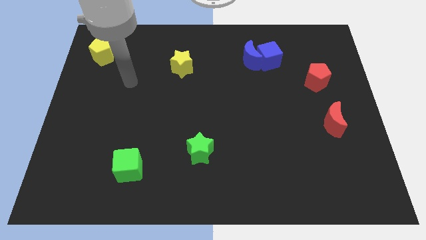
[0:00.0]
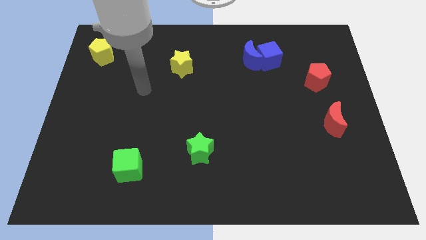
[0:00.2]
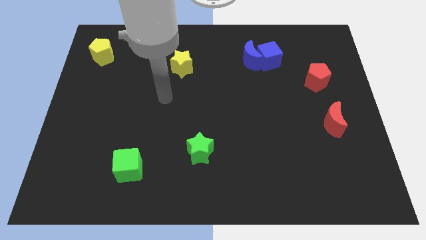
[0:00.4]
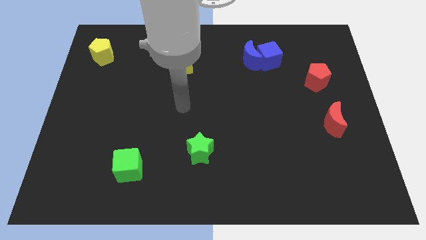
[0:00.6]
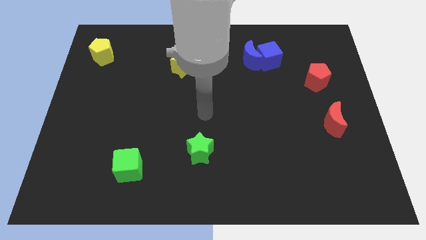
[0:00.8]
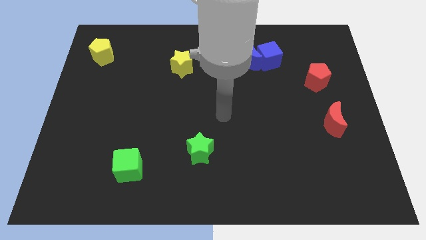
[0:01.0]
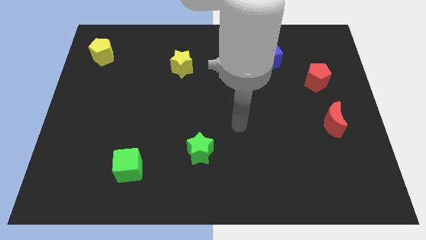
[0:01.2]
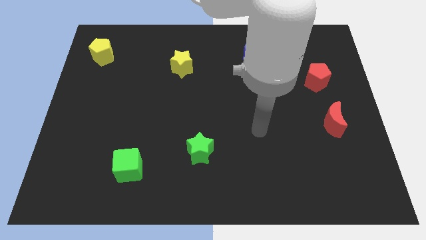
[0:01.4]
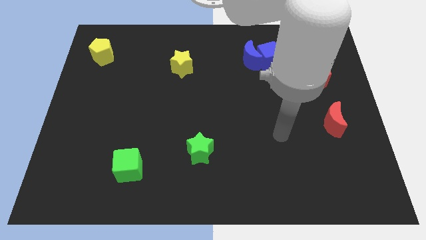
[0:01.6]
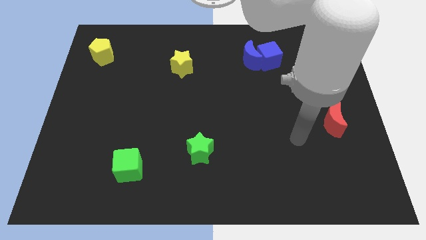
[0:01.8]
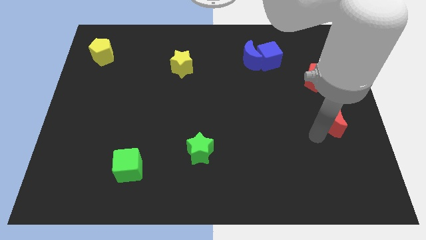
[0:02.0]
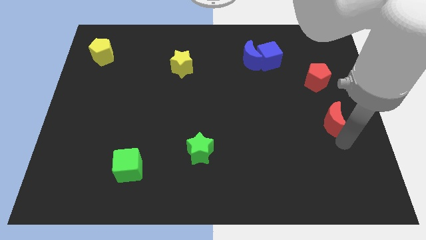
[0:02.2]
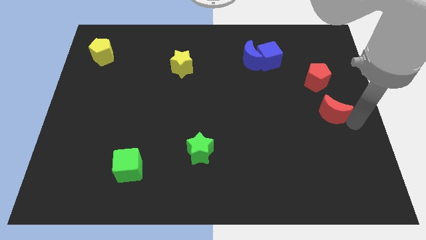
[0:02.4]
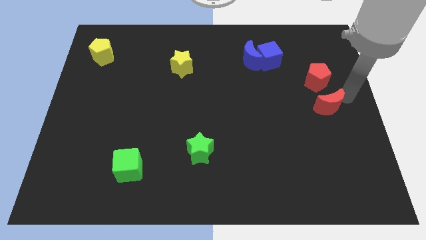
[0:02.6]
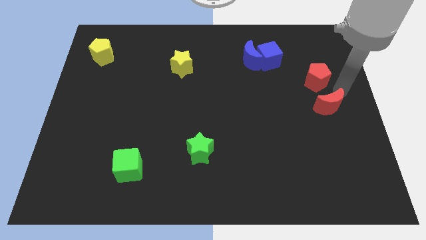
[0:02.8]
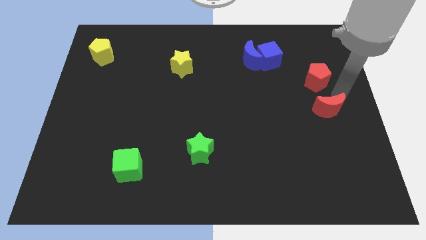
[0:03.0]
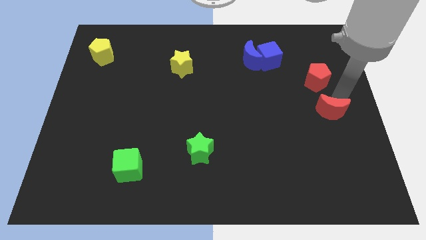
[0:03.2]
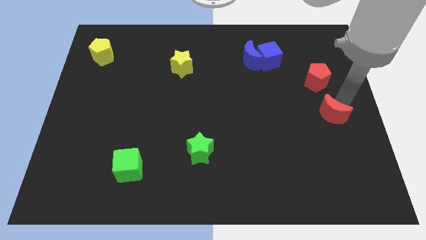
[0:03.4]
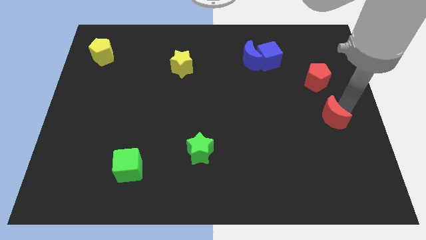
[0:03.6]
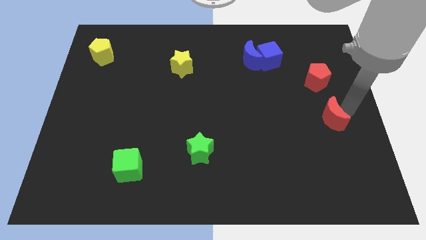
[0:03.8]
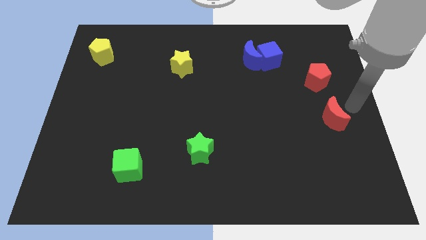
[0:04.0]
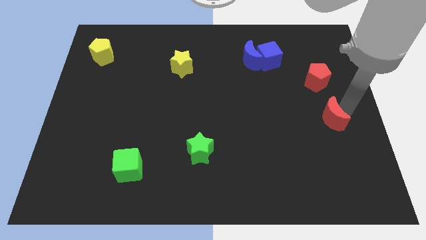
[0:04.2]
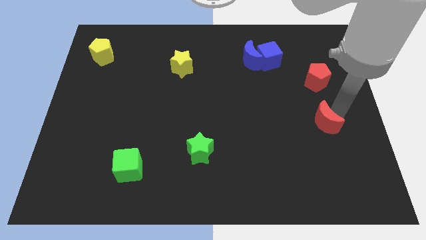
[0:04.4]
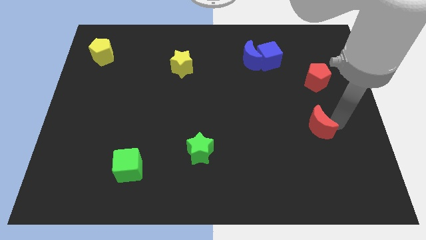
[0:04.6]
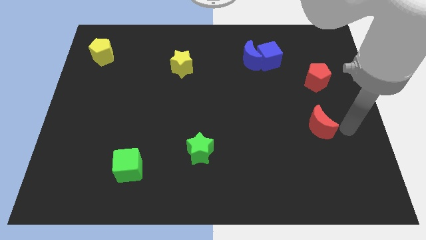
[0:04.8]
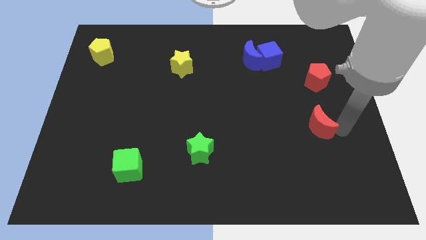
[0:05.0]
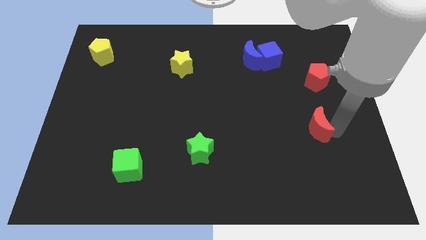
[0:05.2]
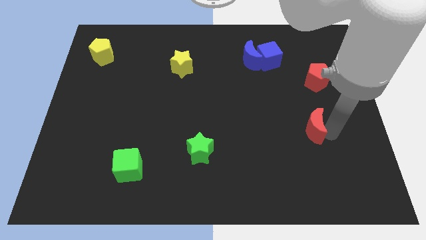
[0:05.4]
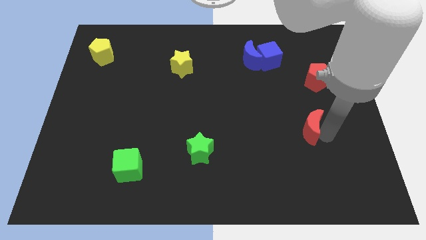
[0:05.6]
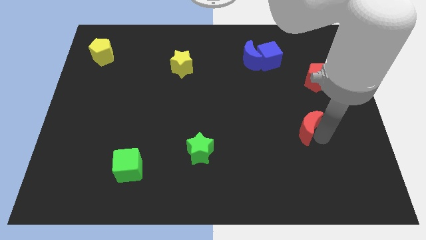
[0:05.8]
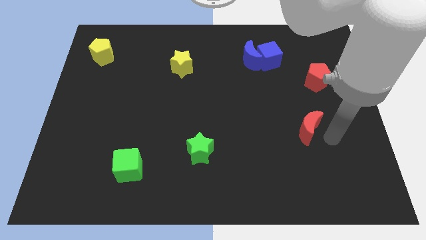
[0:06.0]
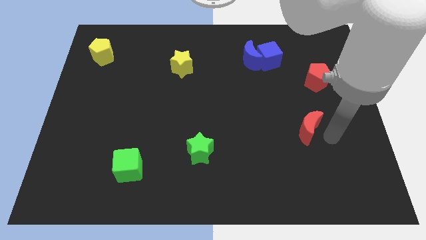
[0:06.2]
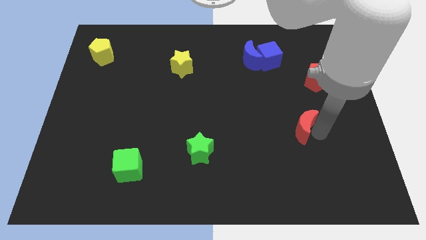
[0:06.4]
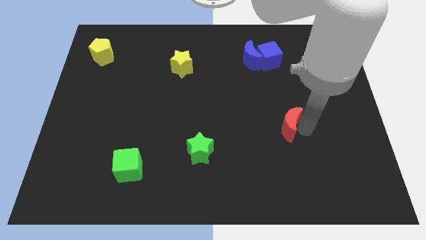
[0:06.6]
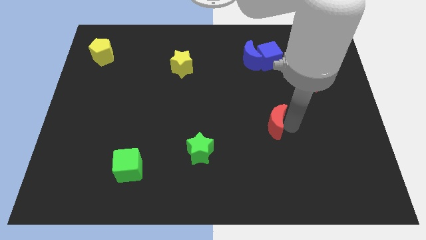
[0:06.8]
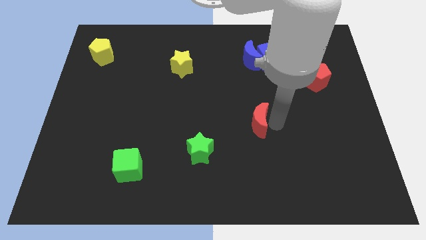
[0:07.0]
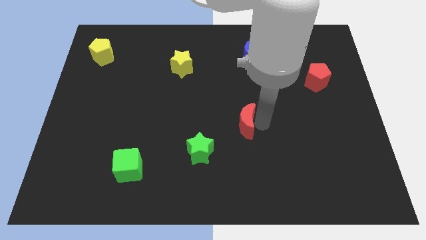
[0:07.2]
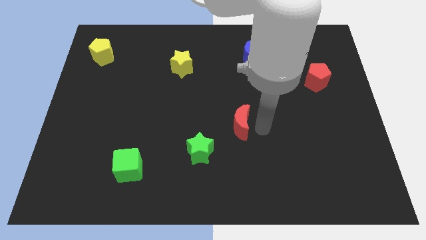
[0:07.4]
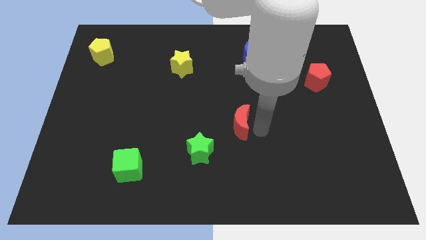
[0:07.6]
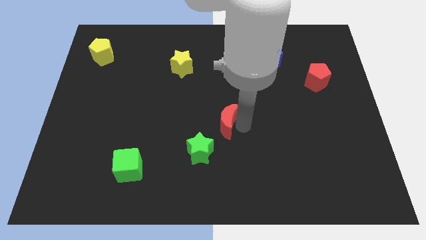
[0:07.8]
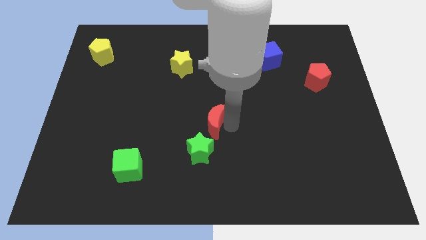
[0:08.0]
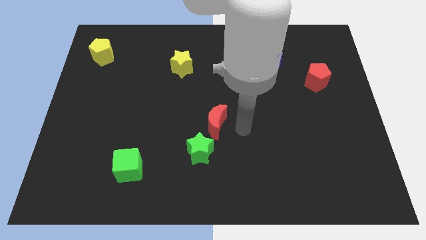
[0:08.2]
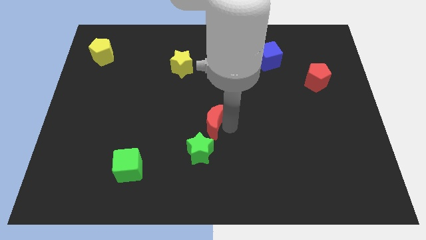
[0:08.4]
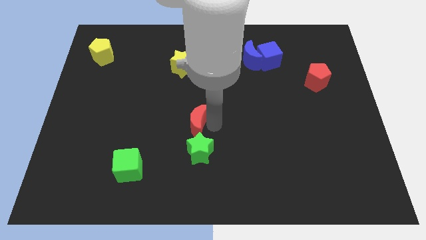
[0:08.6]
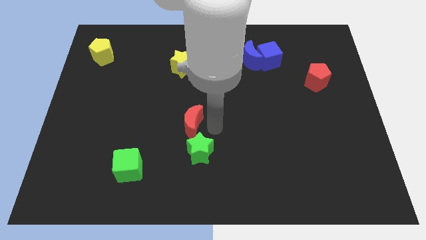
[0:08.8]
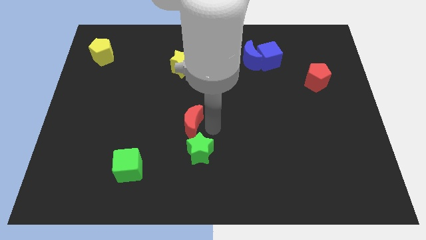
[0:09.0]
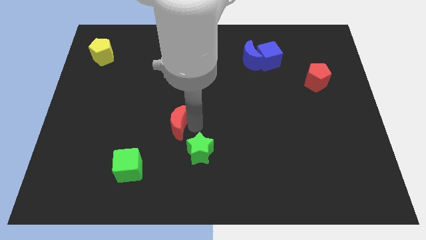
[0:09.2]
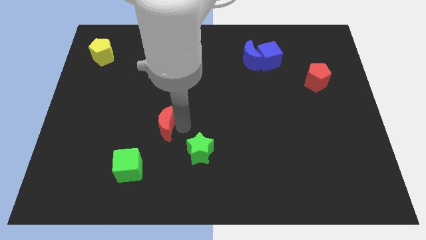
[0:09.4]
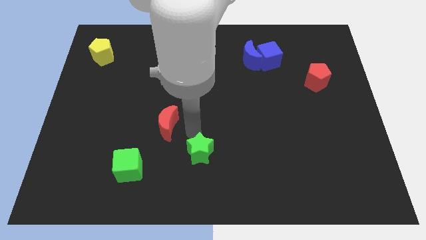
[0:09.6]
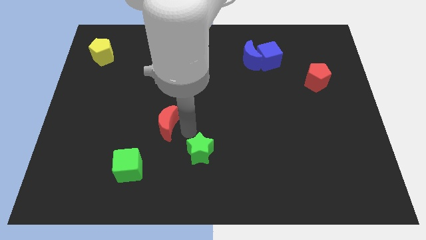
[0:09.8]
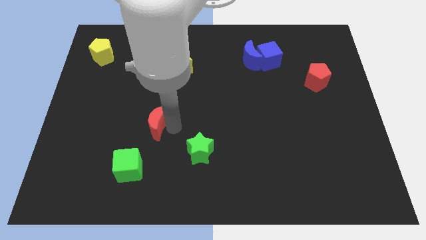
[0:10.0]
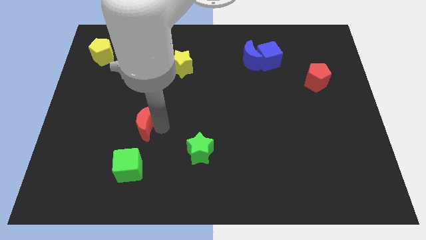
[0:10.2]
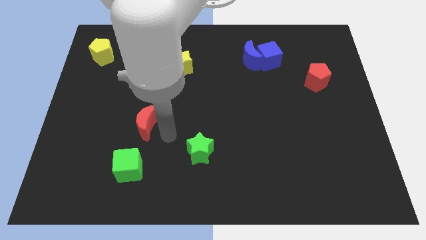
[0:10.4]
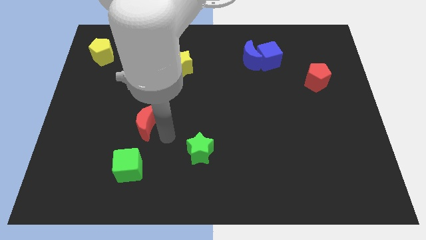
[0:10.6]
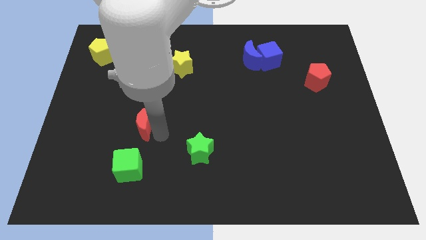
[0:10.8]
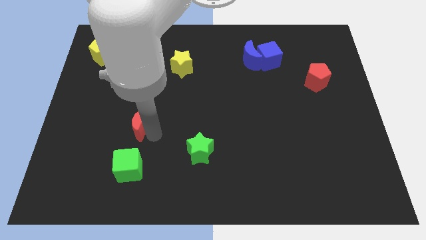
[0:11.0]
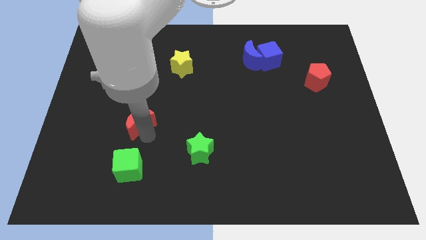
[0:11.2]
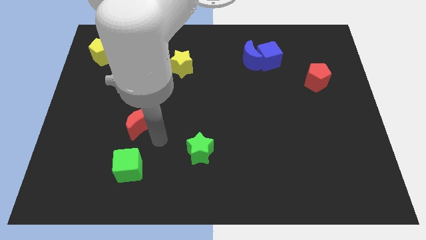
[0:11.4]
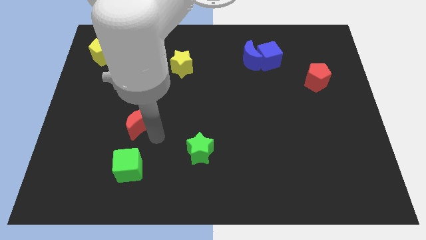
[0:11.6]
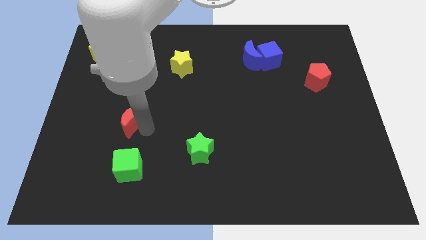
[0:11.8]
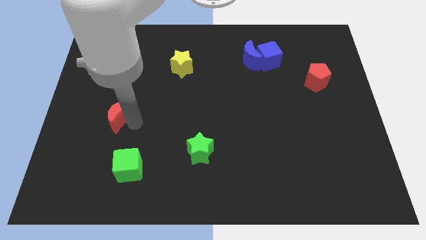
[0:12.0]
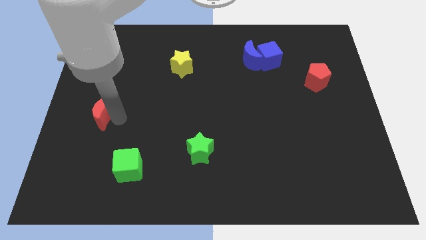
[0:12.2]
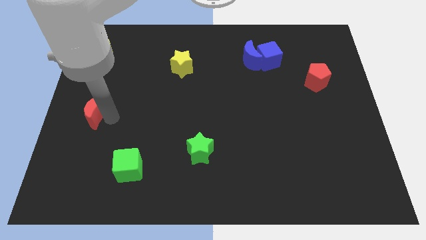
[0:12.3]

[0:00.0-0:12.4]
push the red moon to the left side

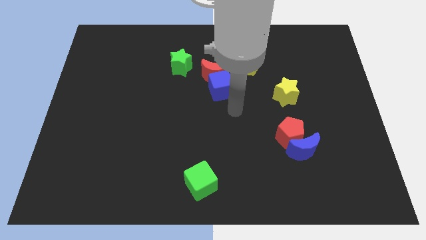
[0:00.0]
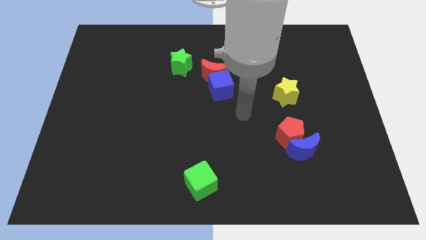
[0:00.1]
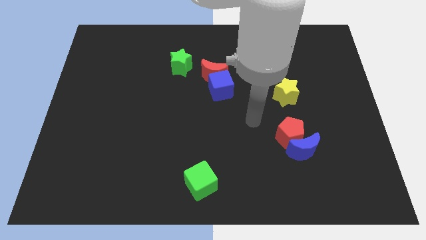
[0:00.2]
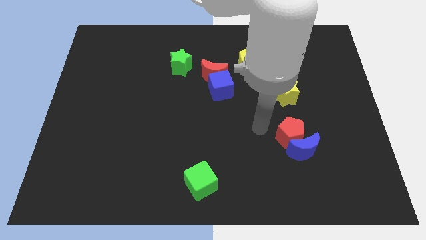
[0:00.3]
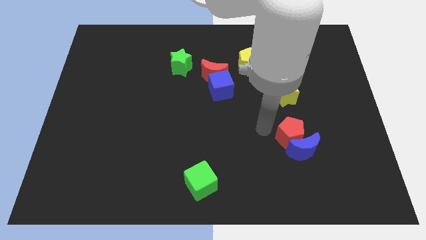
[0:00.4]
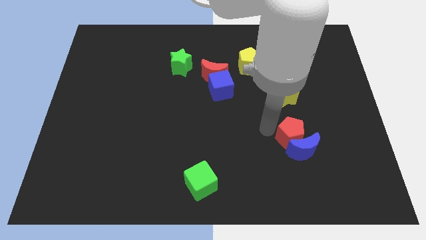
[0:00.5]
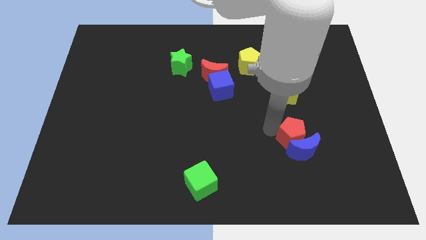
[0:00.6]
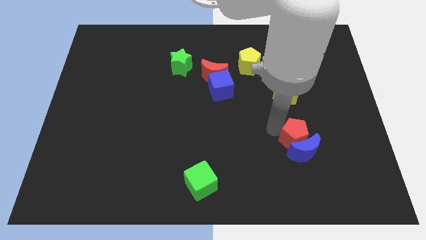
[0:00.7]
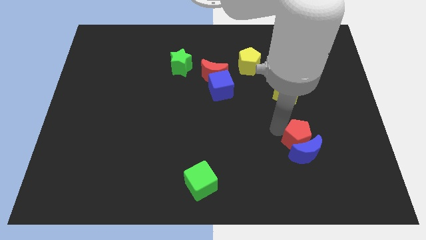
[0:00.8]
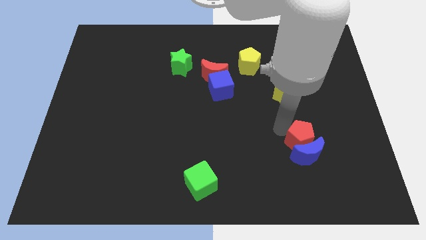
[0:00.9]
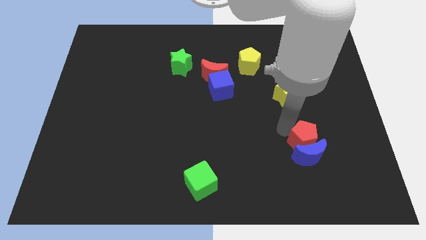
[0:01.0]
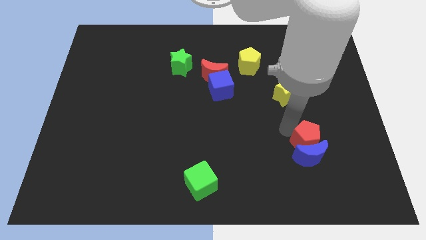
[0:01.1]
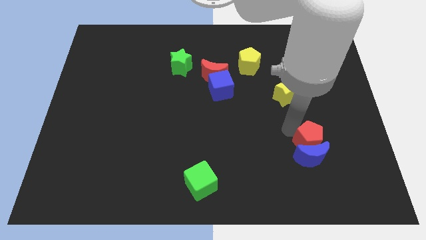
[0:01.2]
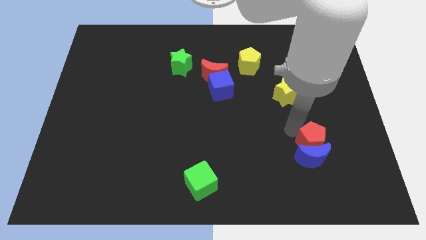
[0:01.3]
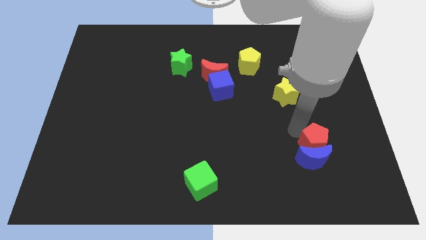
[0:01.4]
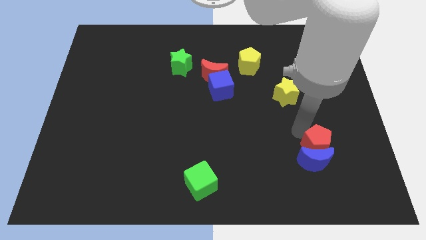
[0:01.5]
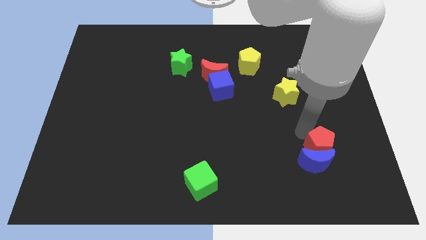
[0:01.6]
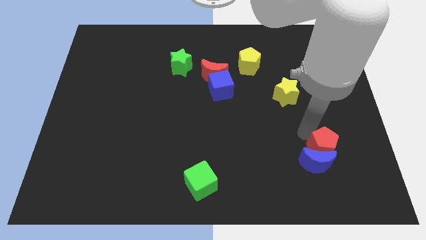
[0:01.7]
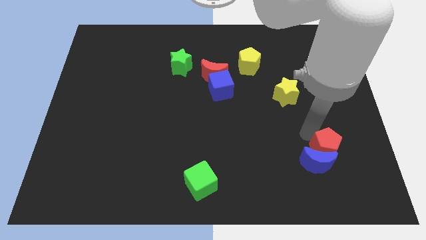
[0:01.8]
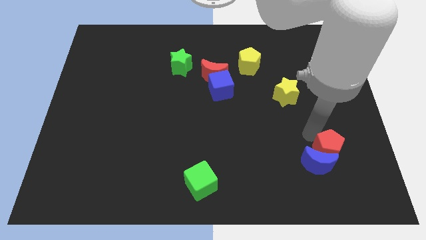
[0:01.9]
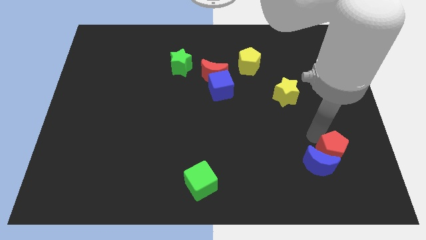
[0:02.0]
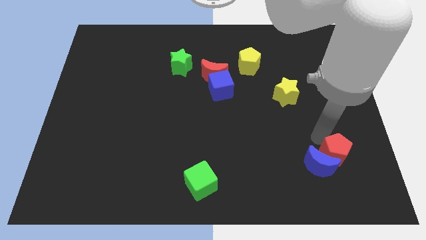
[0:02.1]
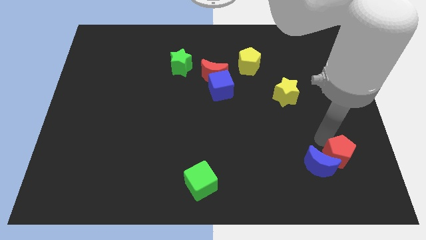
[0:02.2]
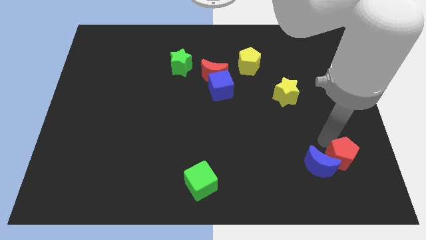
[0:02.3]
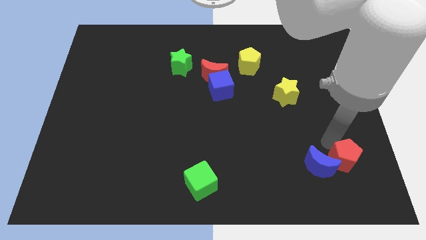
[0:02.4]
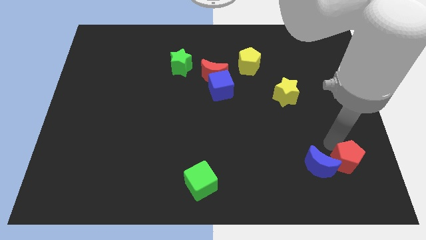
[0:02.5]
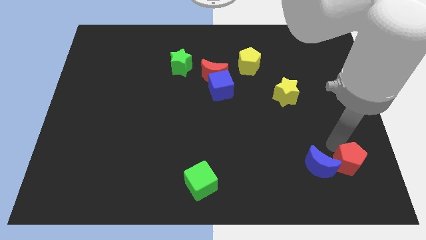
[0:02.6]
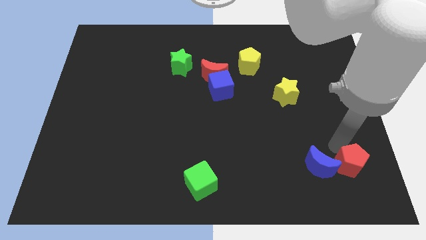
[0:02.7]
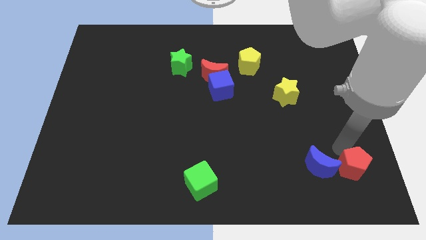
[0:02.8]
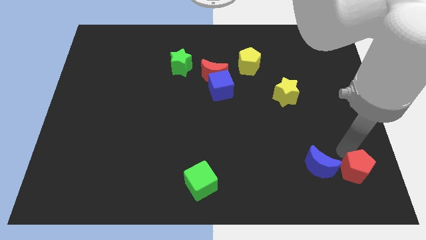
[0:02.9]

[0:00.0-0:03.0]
slide the red pentagon to the lower right corner
